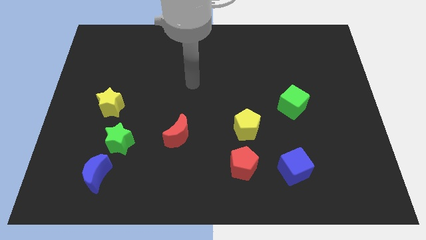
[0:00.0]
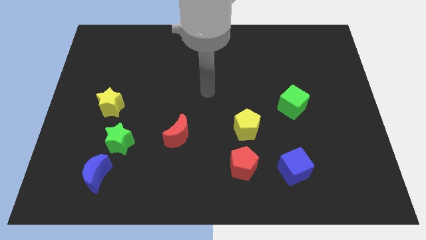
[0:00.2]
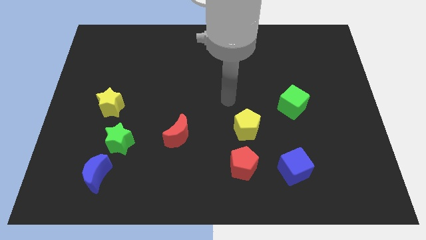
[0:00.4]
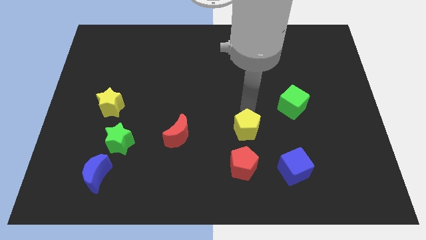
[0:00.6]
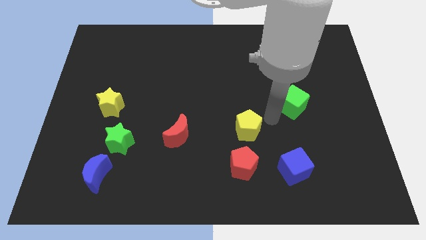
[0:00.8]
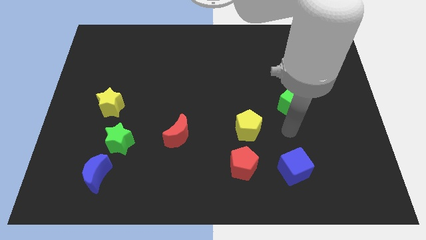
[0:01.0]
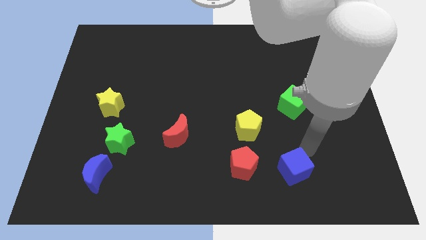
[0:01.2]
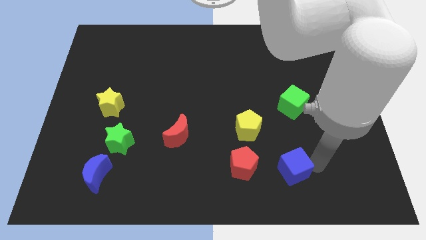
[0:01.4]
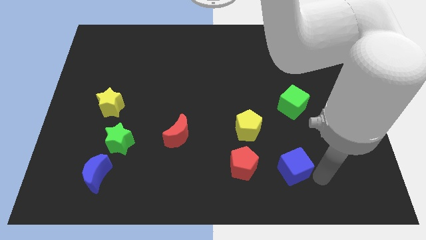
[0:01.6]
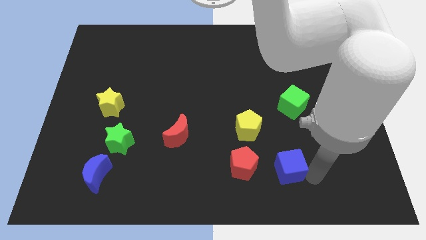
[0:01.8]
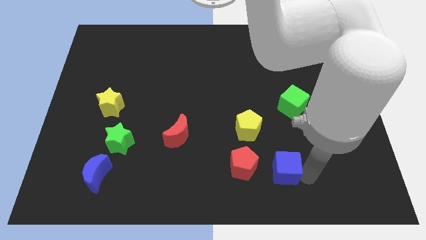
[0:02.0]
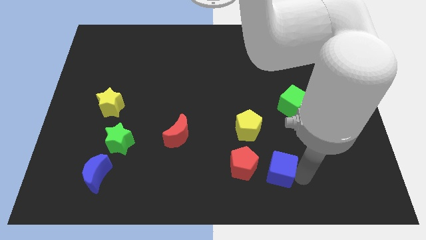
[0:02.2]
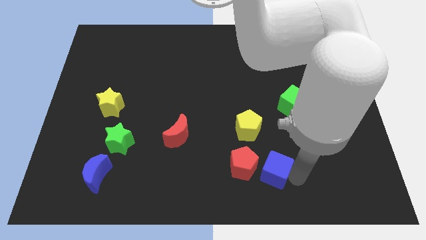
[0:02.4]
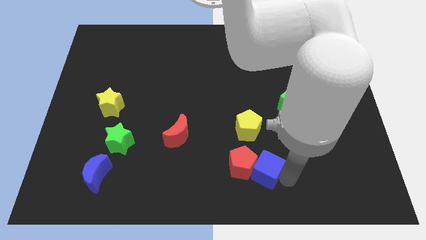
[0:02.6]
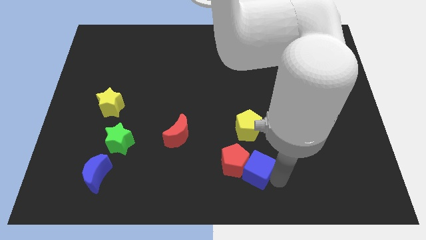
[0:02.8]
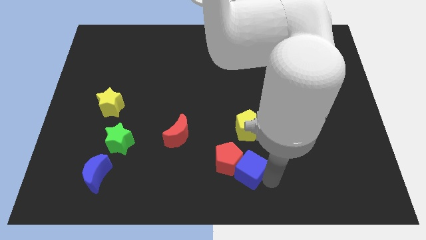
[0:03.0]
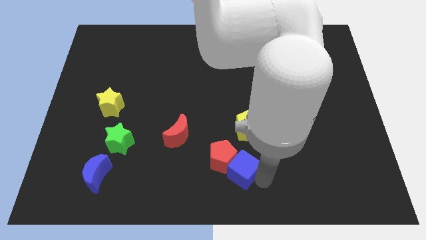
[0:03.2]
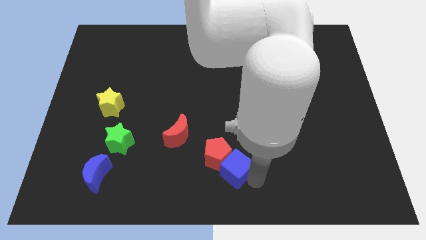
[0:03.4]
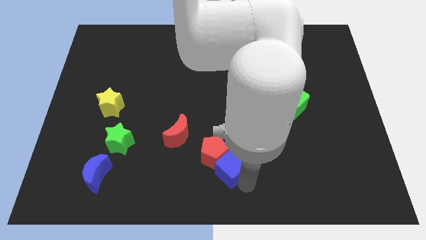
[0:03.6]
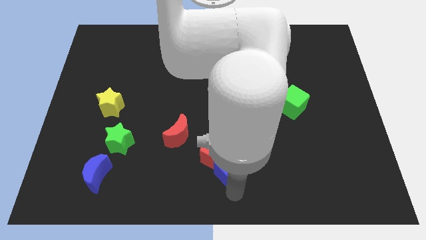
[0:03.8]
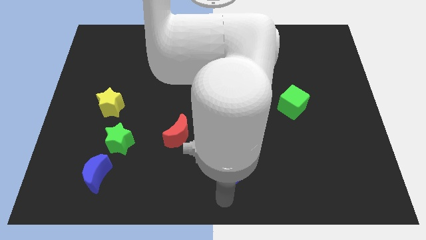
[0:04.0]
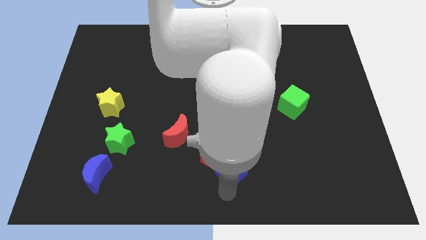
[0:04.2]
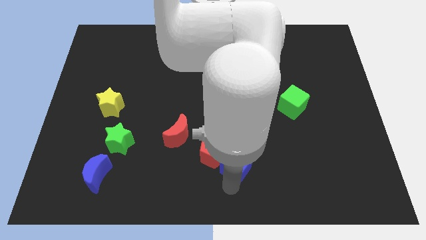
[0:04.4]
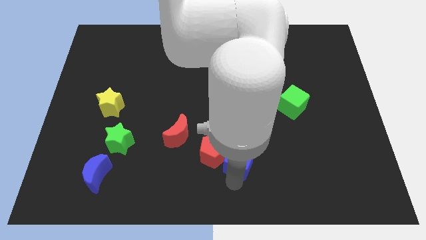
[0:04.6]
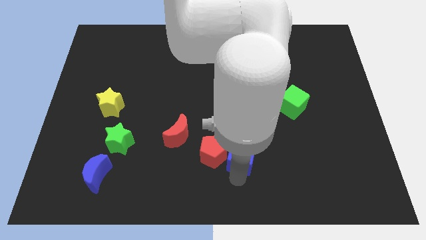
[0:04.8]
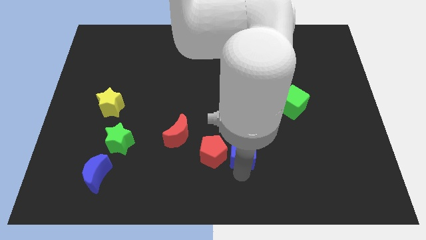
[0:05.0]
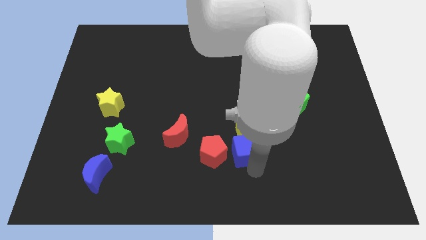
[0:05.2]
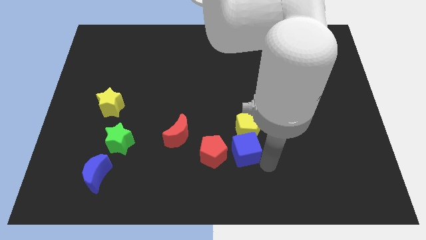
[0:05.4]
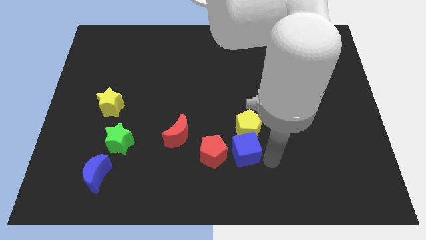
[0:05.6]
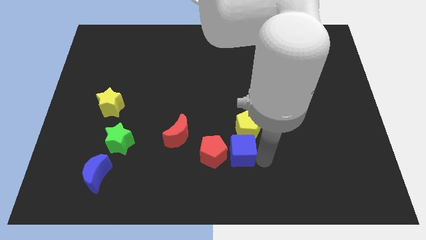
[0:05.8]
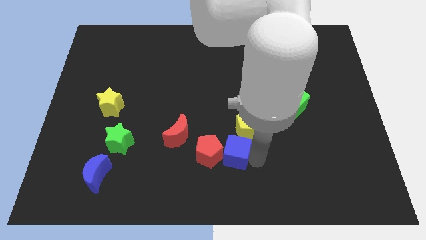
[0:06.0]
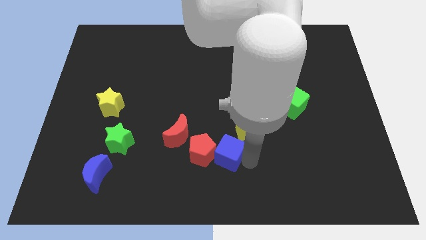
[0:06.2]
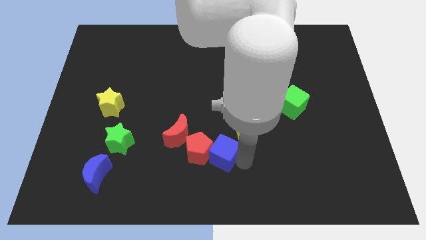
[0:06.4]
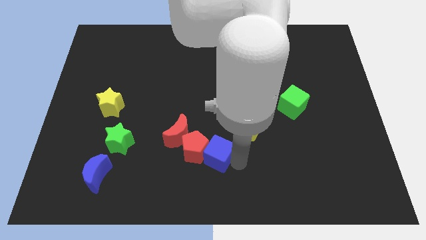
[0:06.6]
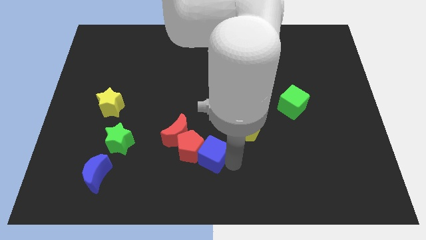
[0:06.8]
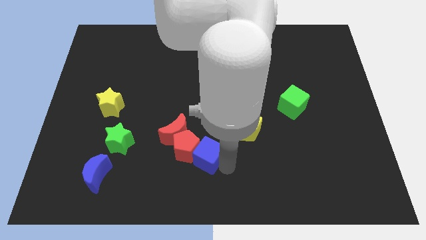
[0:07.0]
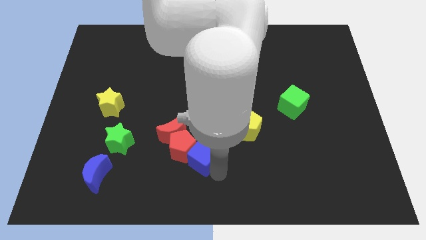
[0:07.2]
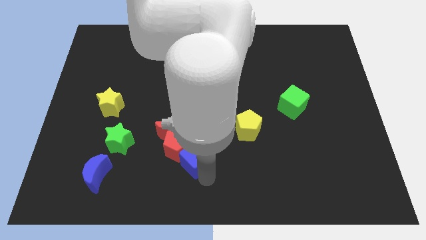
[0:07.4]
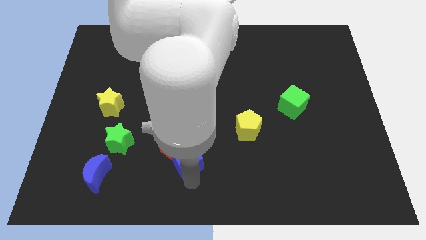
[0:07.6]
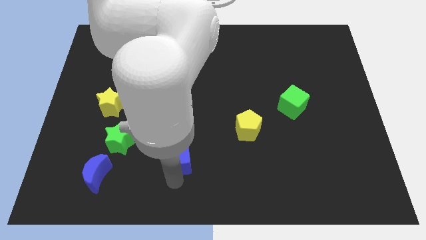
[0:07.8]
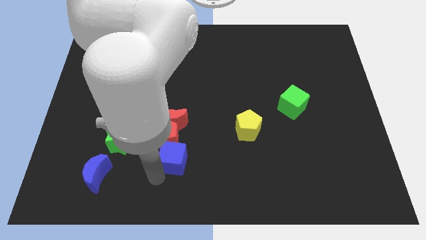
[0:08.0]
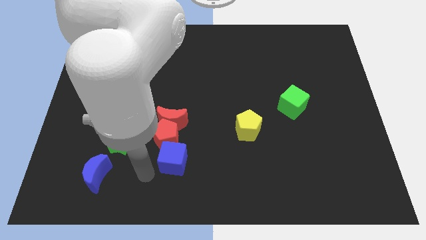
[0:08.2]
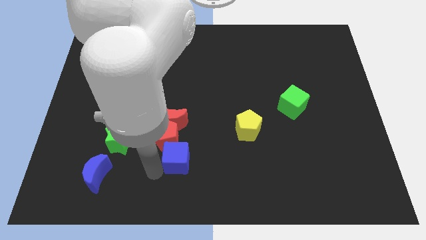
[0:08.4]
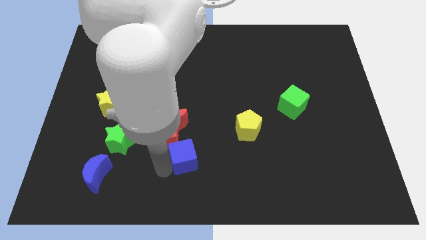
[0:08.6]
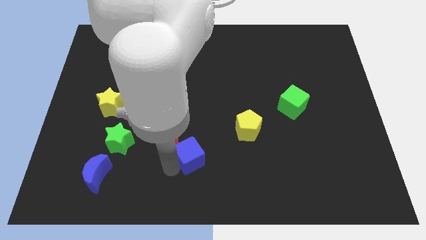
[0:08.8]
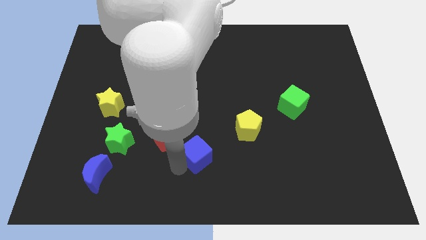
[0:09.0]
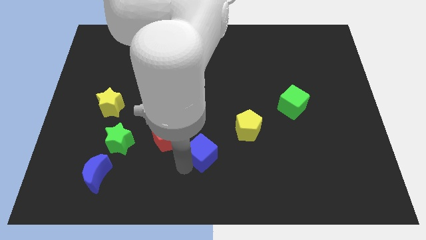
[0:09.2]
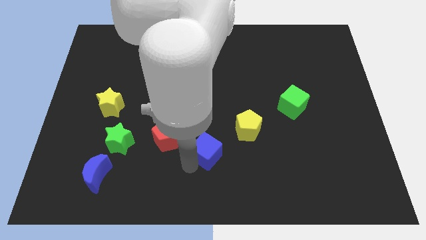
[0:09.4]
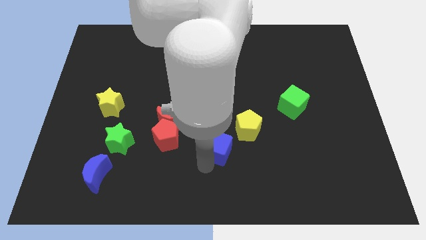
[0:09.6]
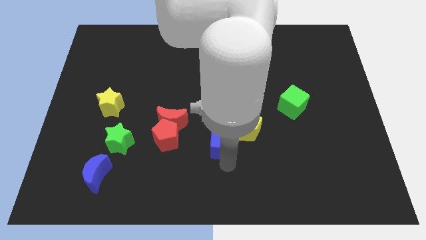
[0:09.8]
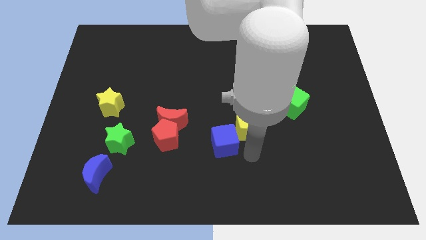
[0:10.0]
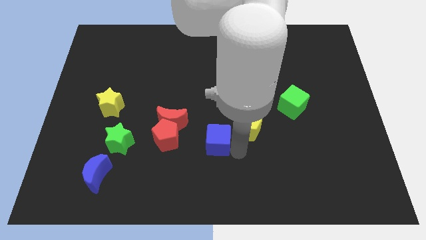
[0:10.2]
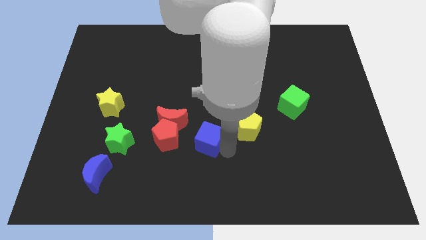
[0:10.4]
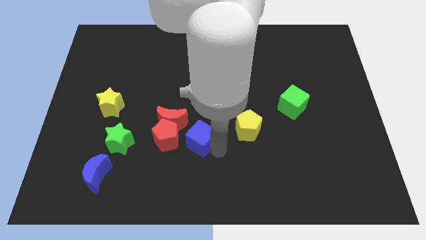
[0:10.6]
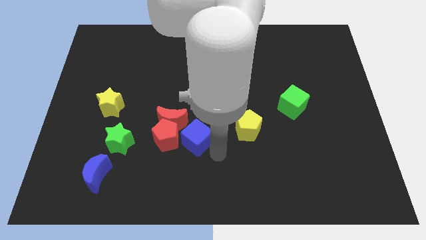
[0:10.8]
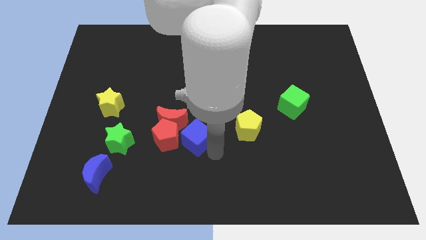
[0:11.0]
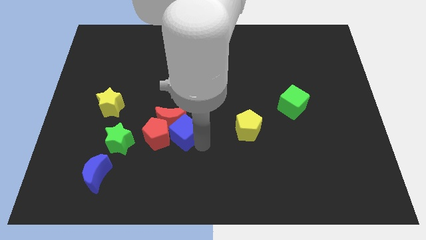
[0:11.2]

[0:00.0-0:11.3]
slide the blue cube next to the red moon

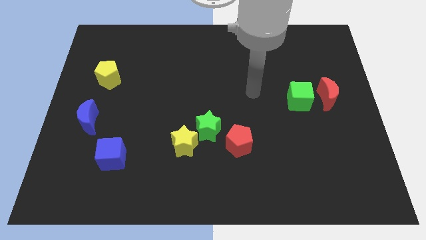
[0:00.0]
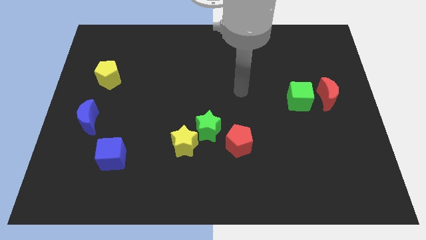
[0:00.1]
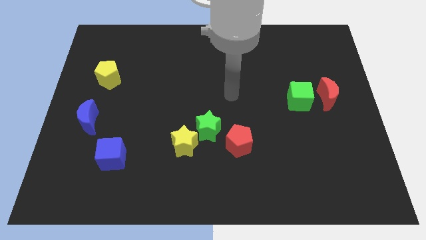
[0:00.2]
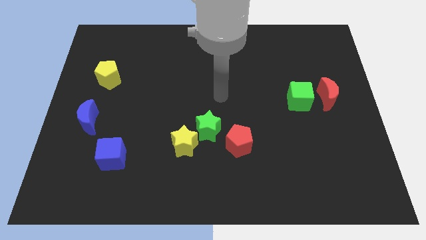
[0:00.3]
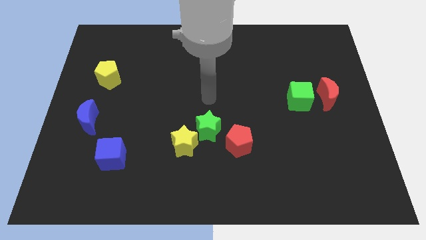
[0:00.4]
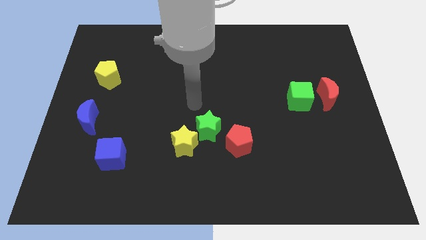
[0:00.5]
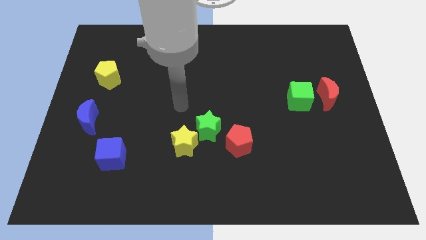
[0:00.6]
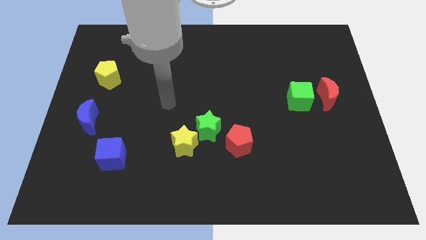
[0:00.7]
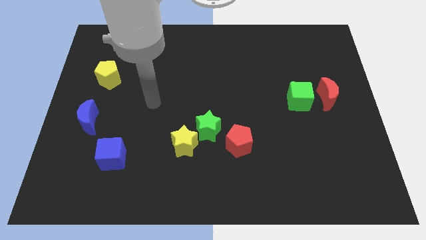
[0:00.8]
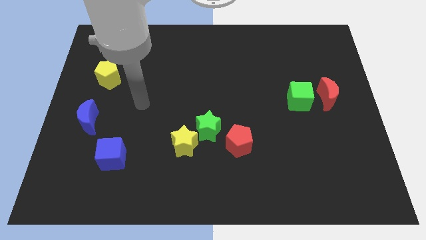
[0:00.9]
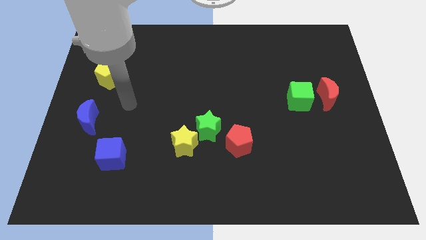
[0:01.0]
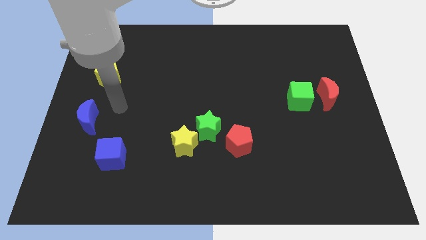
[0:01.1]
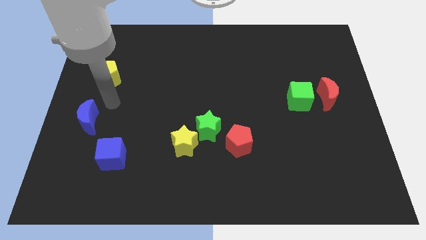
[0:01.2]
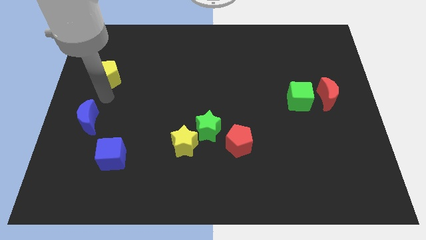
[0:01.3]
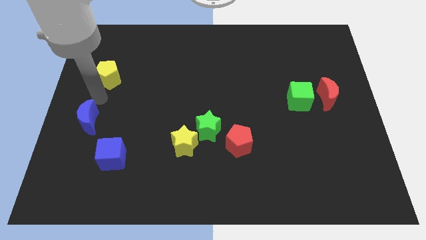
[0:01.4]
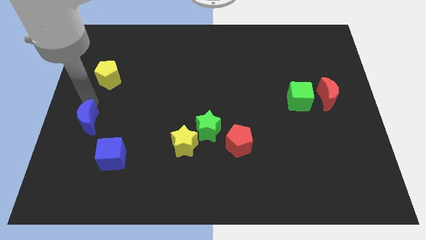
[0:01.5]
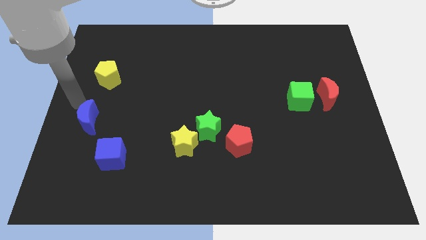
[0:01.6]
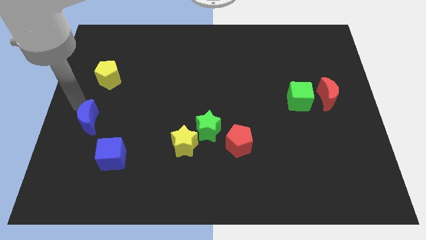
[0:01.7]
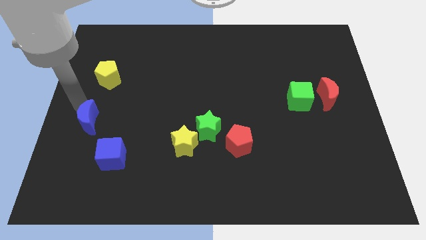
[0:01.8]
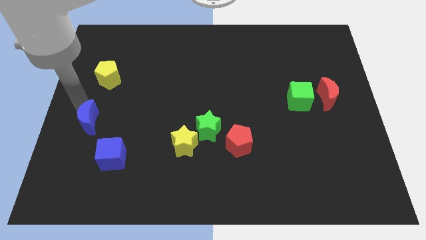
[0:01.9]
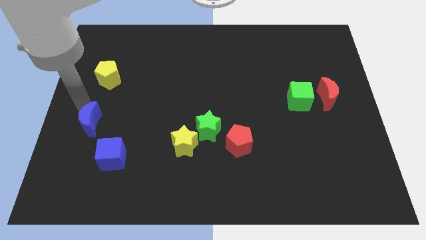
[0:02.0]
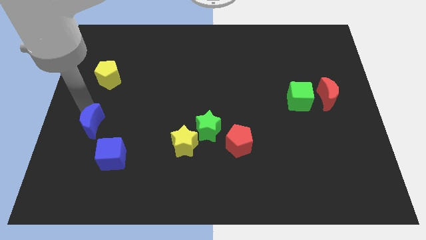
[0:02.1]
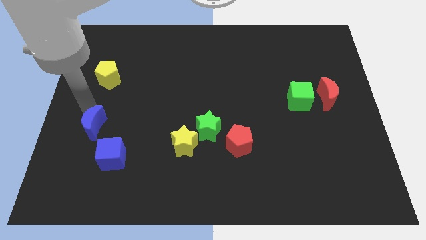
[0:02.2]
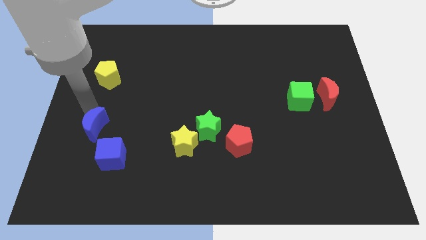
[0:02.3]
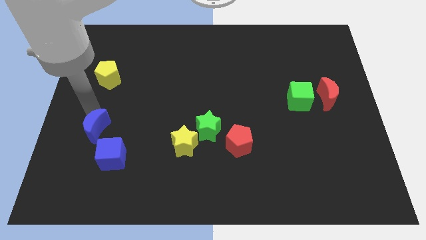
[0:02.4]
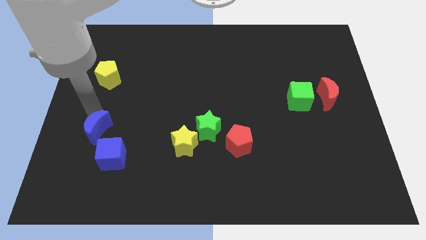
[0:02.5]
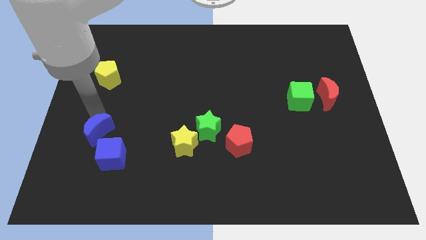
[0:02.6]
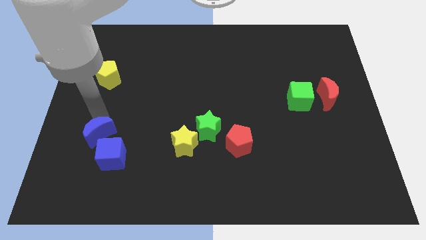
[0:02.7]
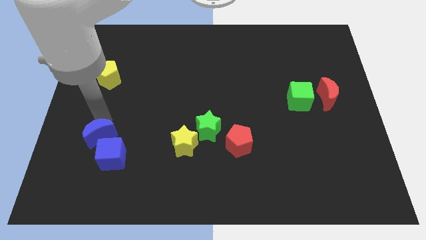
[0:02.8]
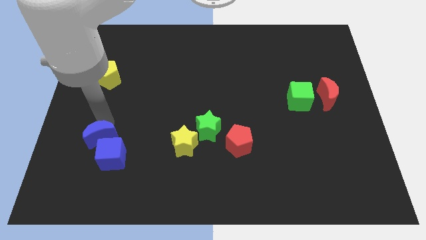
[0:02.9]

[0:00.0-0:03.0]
put the blue moon close to the blue cube
